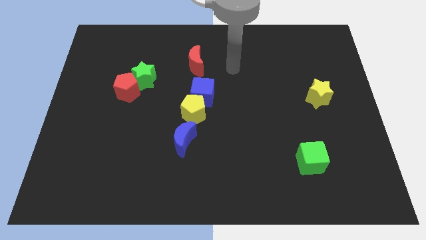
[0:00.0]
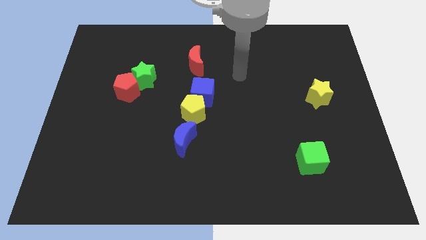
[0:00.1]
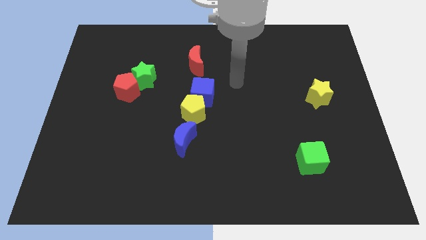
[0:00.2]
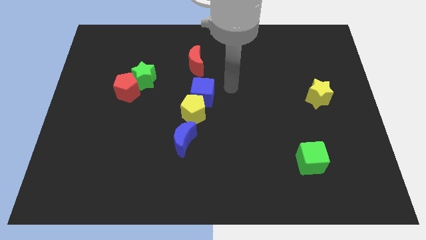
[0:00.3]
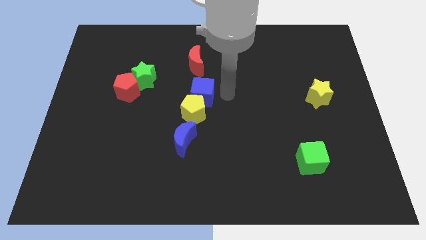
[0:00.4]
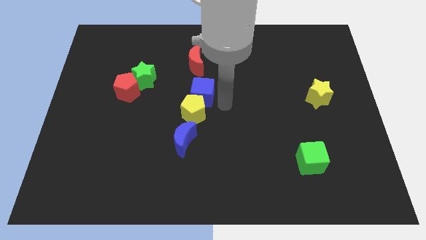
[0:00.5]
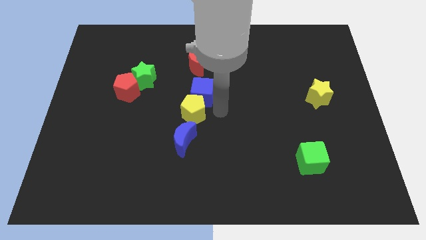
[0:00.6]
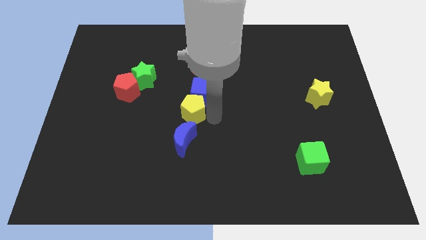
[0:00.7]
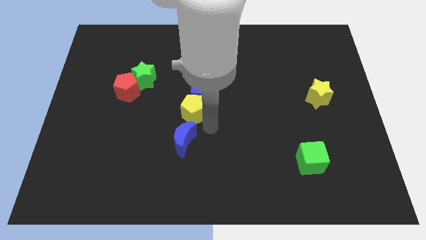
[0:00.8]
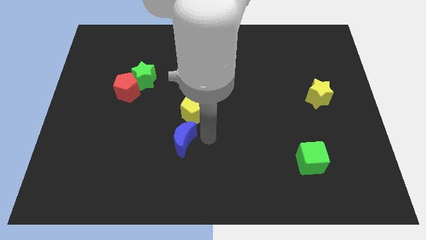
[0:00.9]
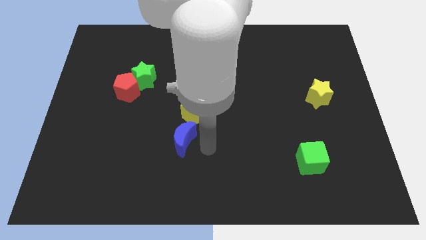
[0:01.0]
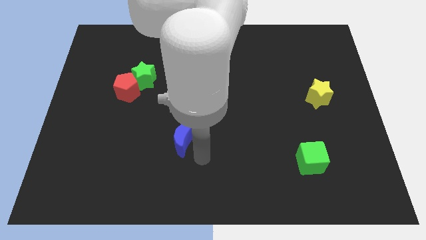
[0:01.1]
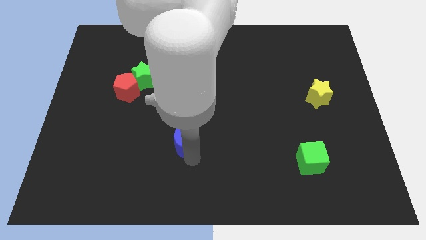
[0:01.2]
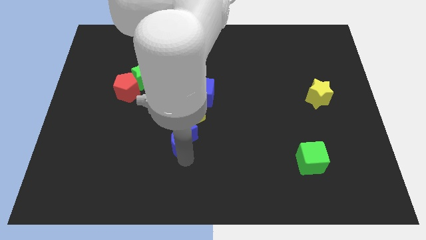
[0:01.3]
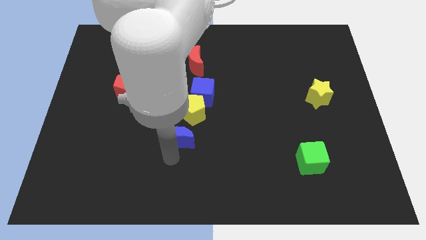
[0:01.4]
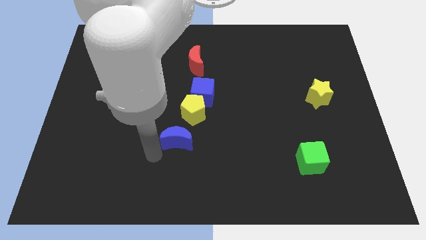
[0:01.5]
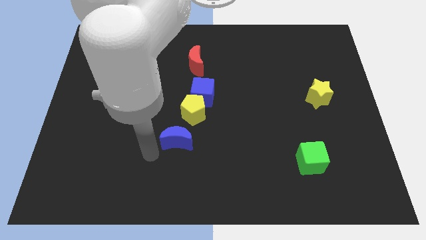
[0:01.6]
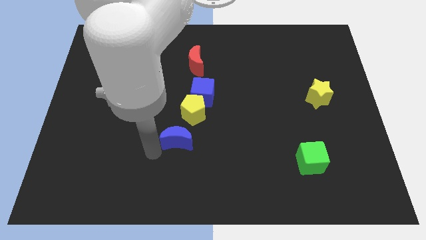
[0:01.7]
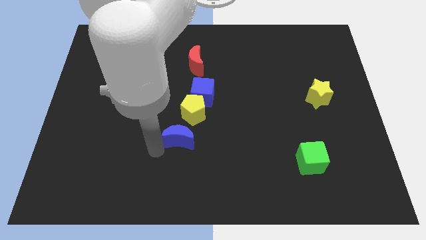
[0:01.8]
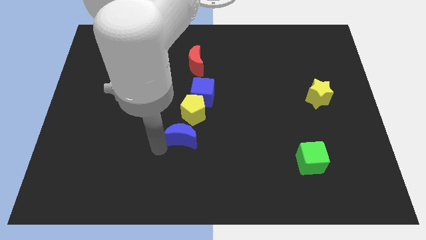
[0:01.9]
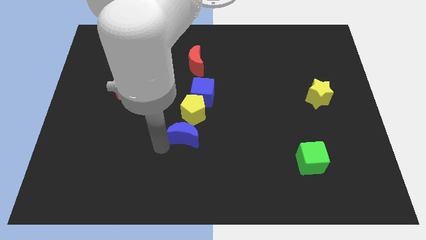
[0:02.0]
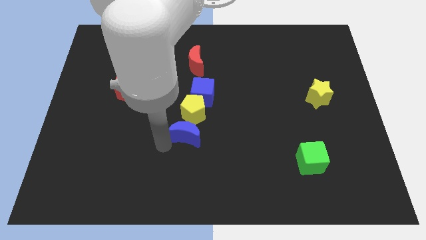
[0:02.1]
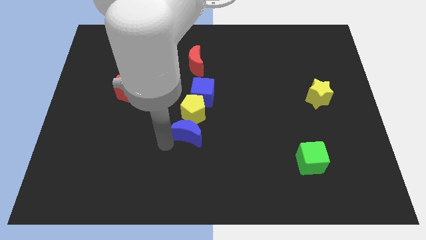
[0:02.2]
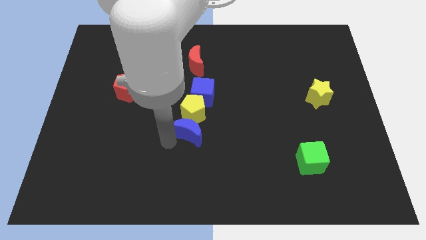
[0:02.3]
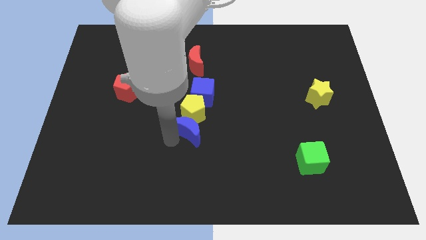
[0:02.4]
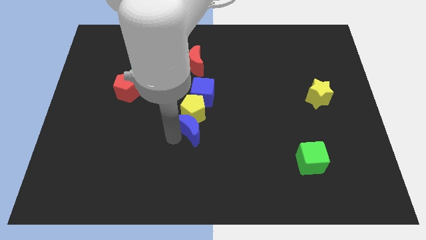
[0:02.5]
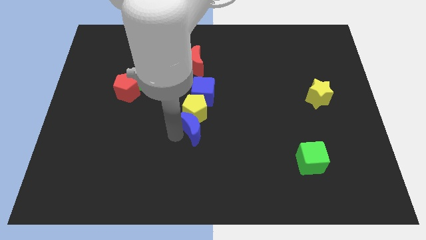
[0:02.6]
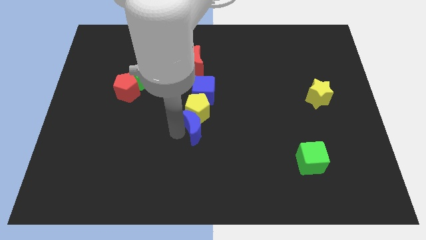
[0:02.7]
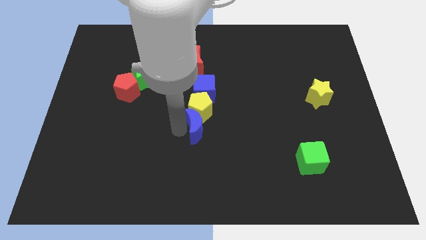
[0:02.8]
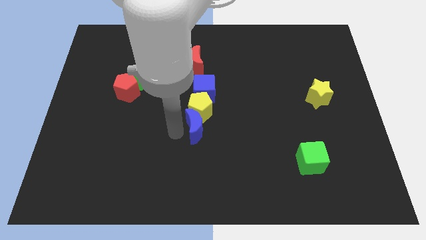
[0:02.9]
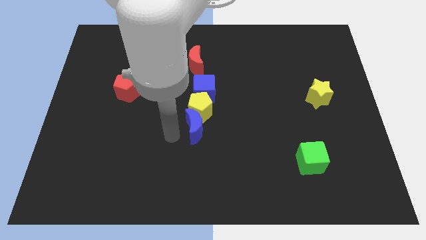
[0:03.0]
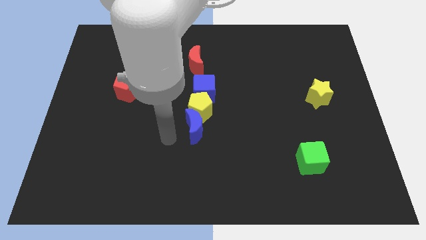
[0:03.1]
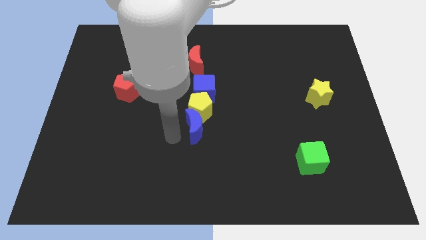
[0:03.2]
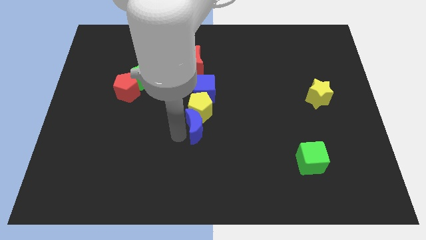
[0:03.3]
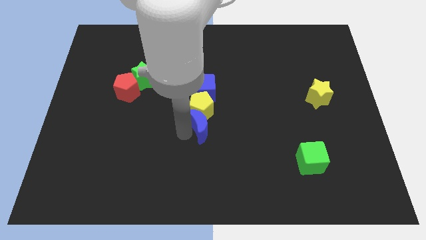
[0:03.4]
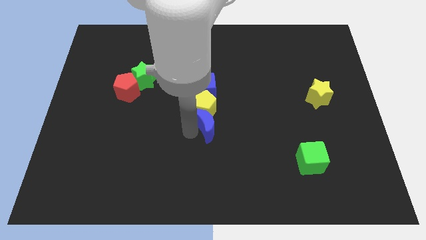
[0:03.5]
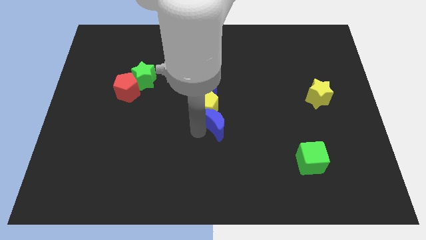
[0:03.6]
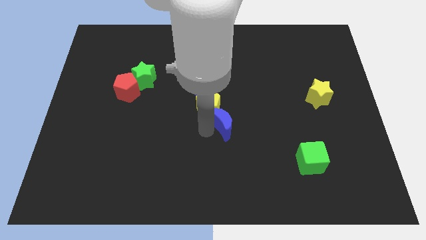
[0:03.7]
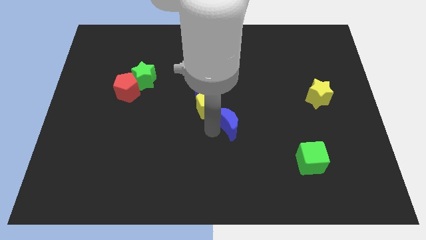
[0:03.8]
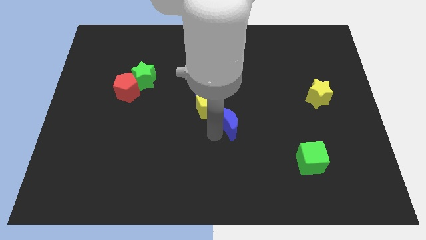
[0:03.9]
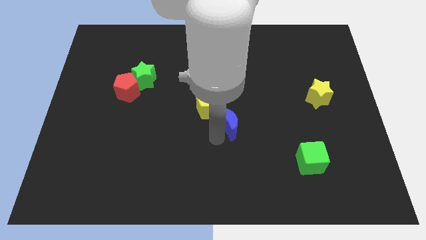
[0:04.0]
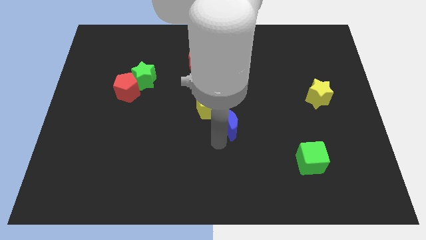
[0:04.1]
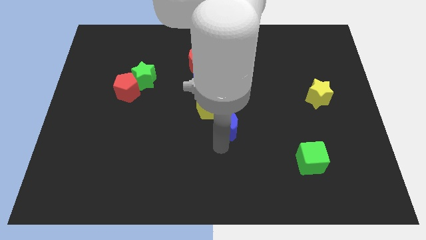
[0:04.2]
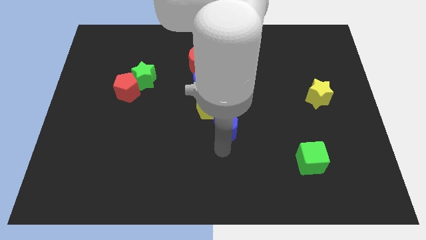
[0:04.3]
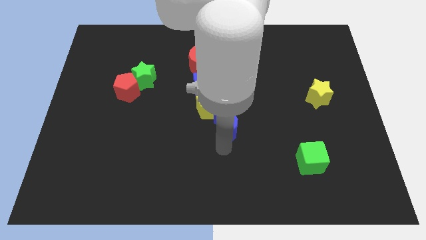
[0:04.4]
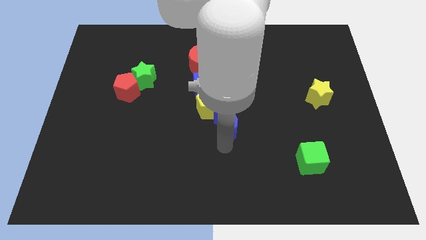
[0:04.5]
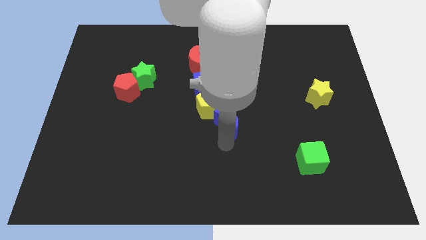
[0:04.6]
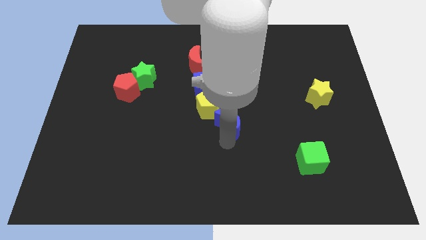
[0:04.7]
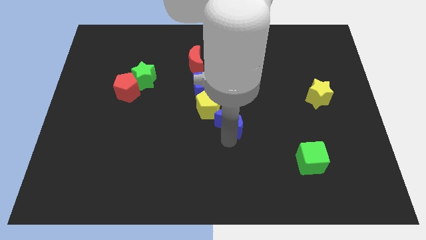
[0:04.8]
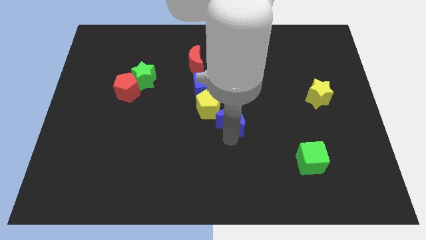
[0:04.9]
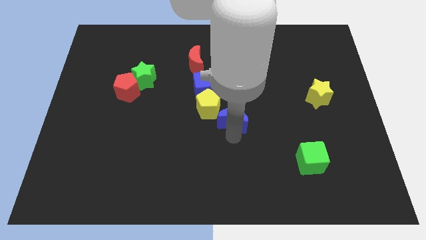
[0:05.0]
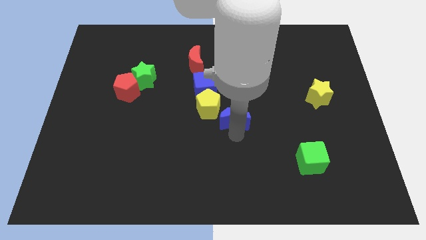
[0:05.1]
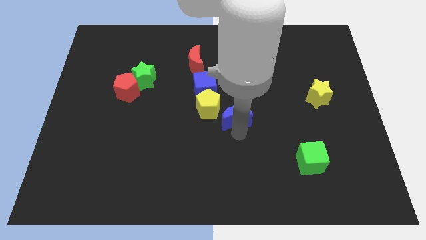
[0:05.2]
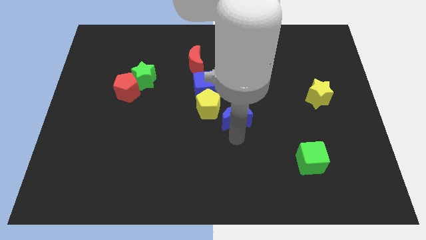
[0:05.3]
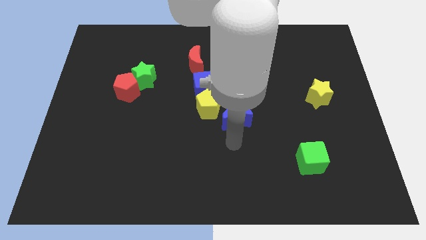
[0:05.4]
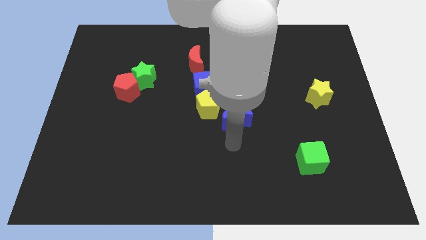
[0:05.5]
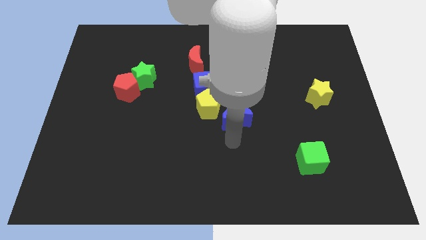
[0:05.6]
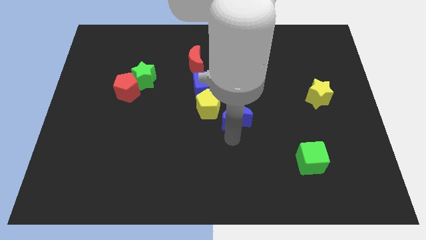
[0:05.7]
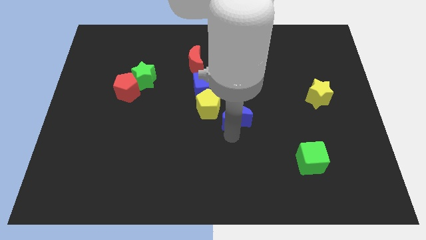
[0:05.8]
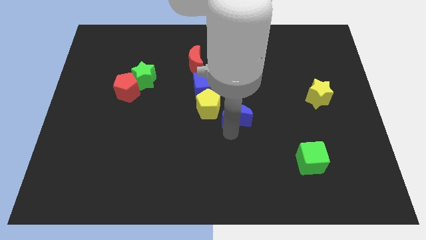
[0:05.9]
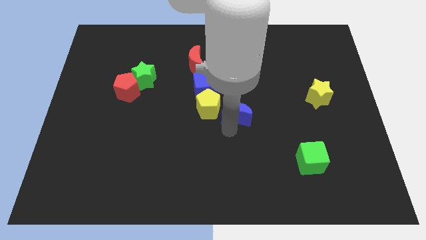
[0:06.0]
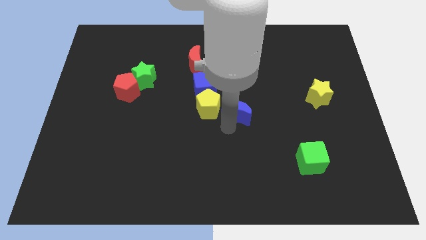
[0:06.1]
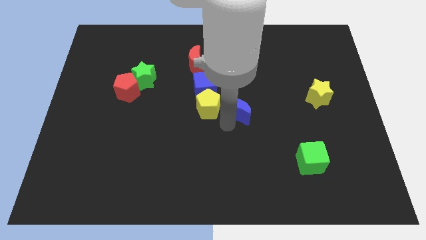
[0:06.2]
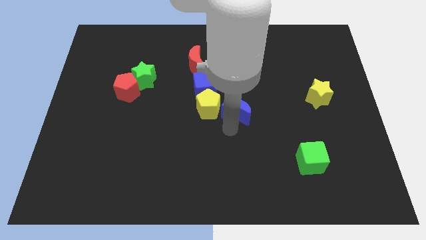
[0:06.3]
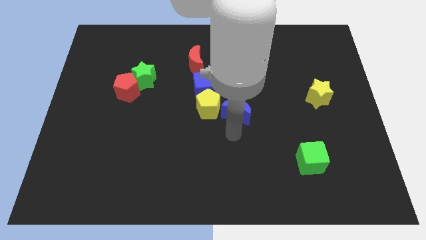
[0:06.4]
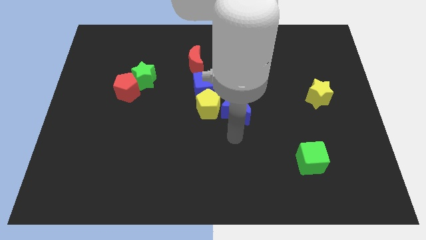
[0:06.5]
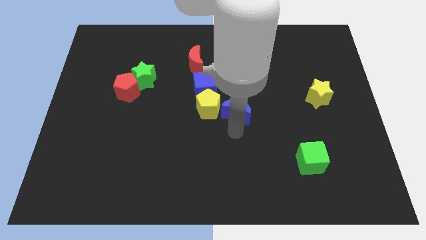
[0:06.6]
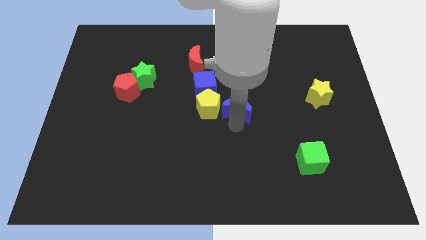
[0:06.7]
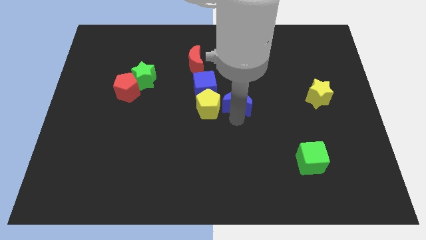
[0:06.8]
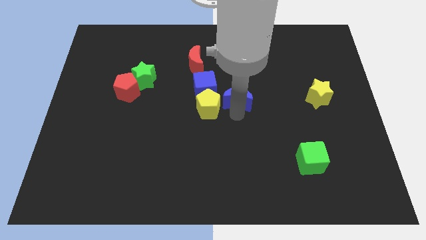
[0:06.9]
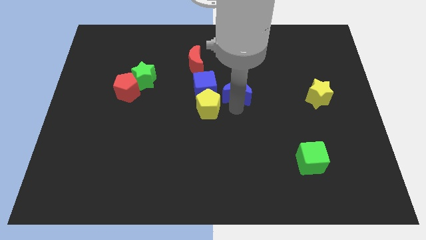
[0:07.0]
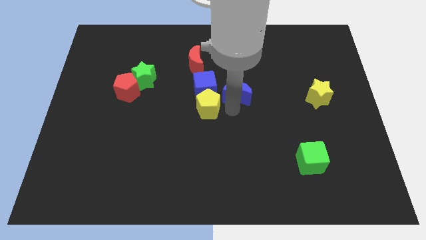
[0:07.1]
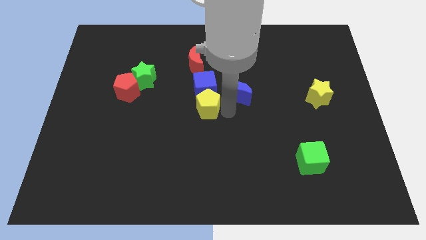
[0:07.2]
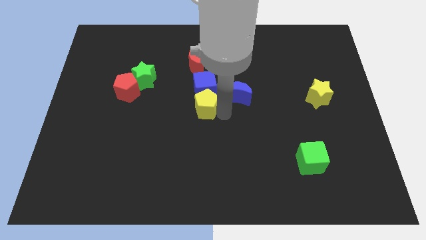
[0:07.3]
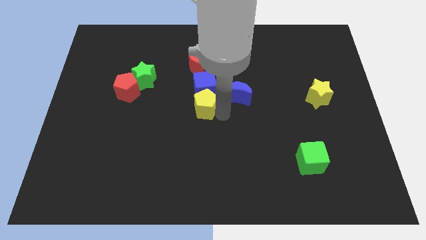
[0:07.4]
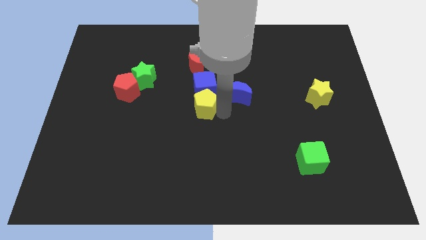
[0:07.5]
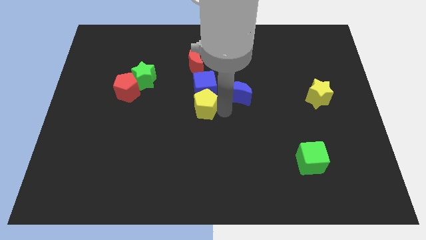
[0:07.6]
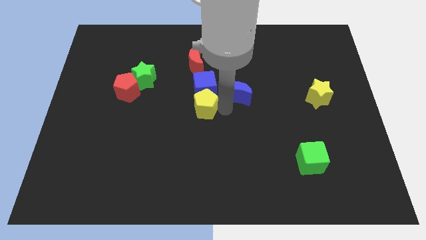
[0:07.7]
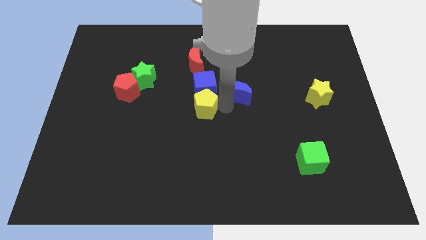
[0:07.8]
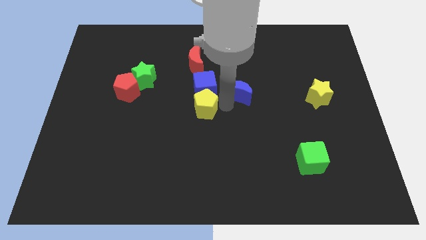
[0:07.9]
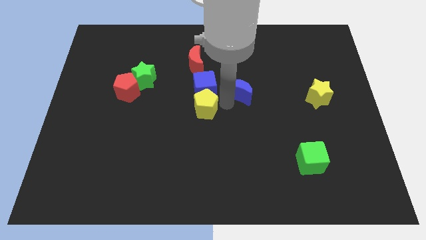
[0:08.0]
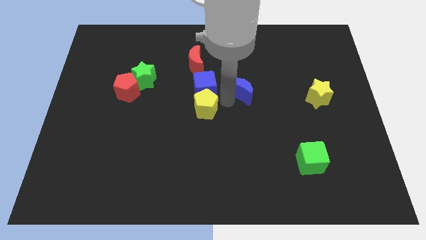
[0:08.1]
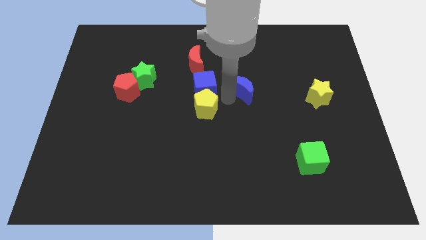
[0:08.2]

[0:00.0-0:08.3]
push the blue moon upwards and then right
